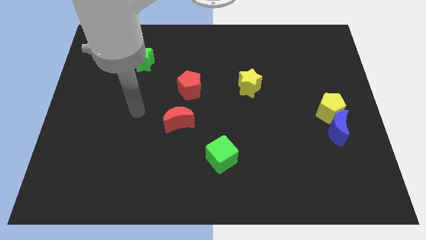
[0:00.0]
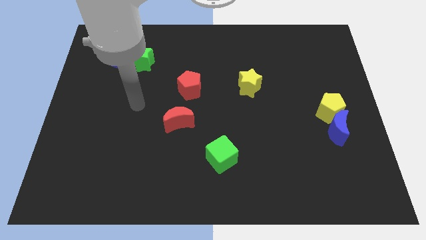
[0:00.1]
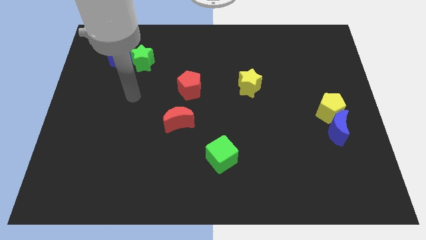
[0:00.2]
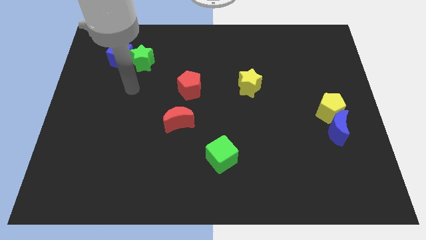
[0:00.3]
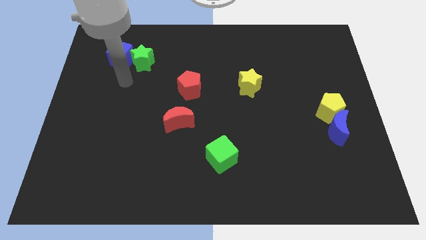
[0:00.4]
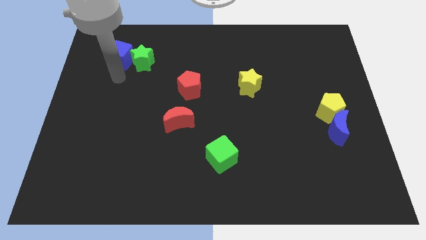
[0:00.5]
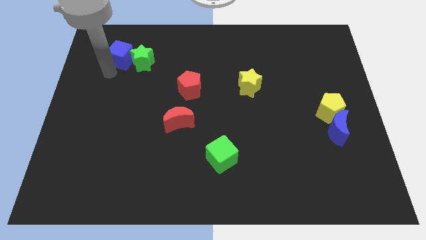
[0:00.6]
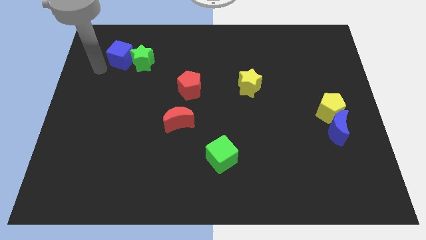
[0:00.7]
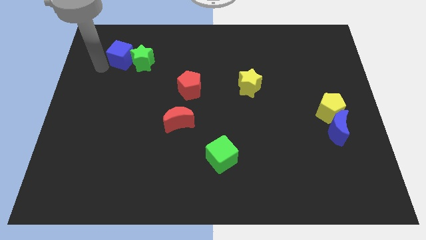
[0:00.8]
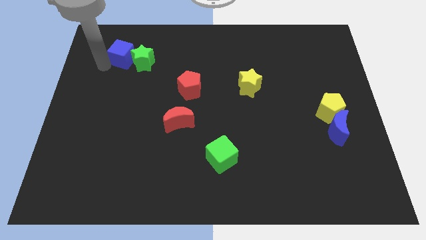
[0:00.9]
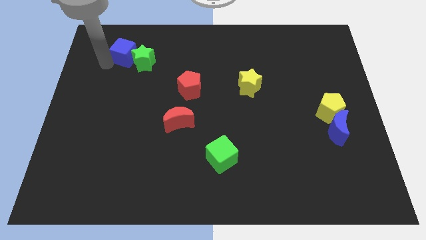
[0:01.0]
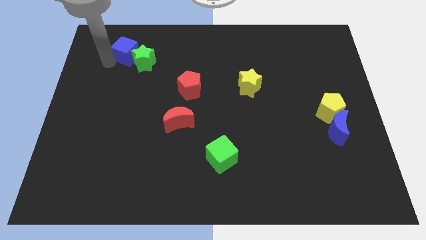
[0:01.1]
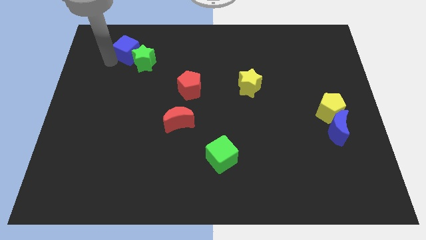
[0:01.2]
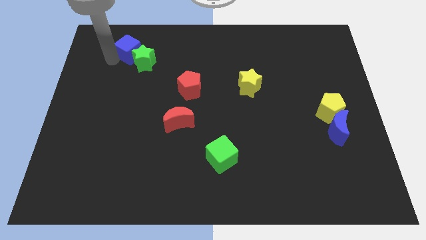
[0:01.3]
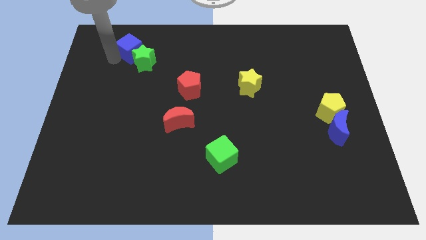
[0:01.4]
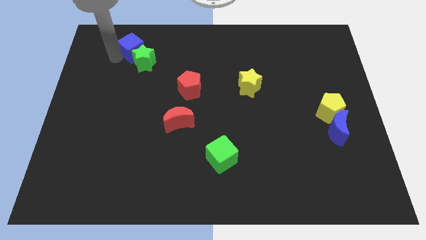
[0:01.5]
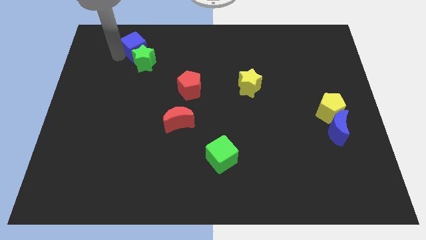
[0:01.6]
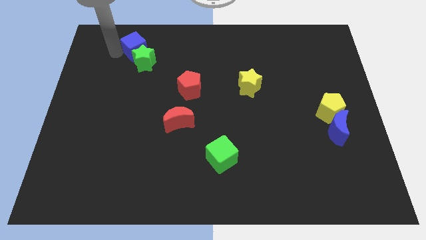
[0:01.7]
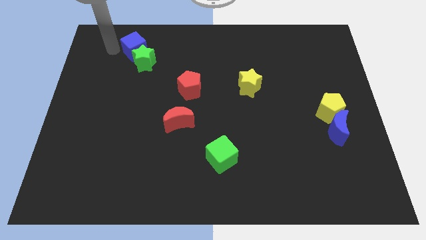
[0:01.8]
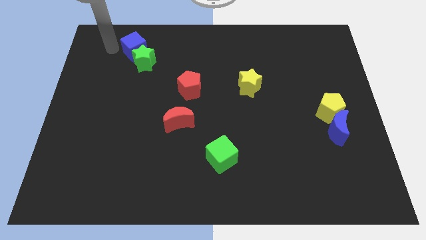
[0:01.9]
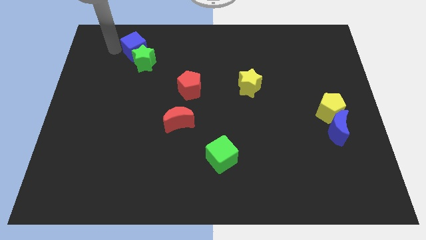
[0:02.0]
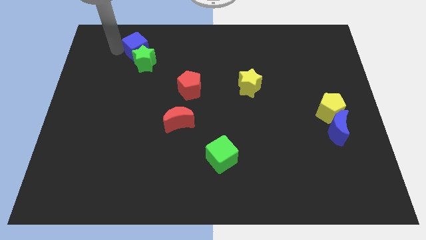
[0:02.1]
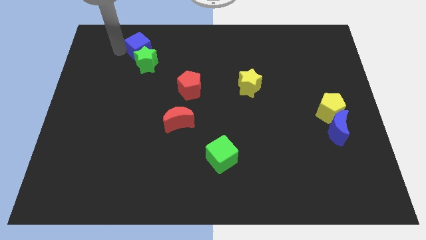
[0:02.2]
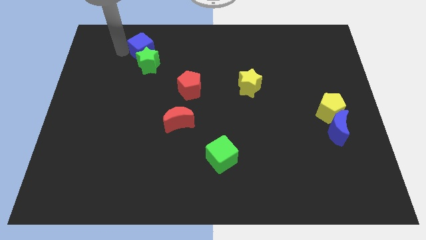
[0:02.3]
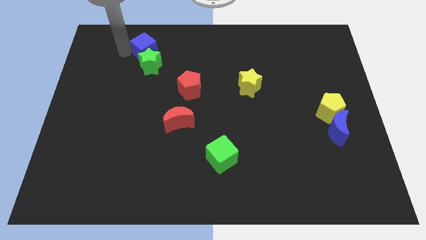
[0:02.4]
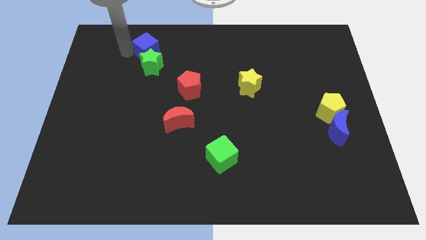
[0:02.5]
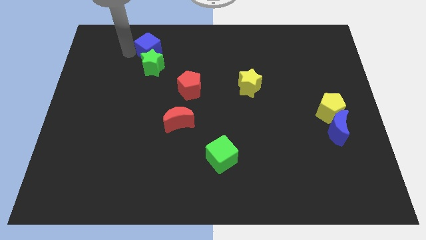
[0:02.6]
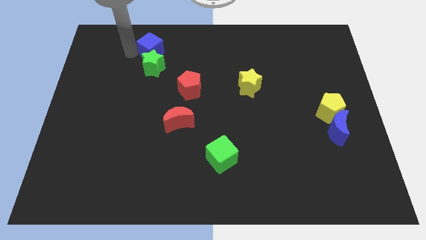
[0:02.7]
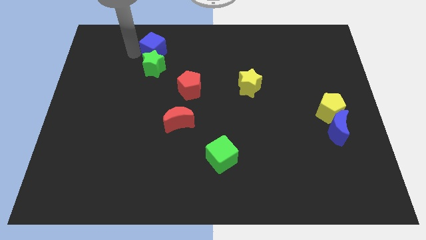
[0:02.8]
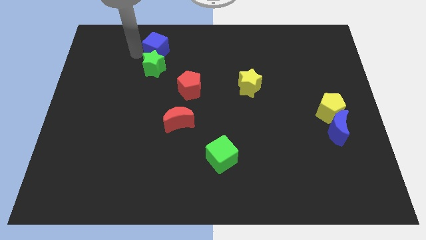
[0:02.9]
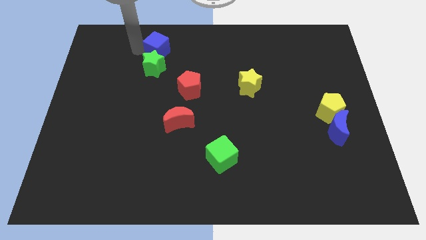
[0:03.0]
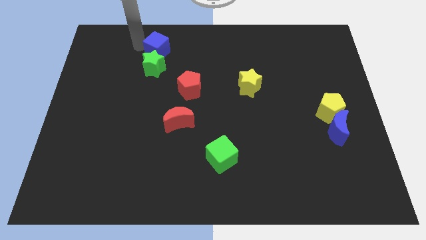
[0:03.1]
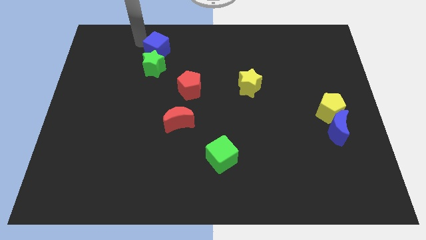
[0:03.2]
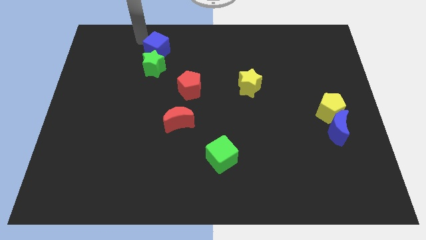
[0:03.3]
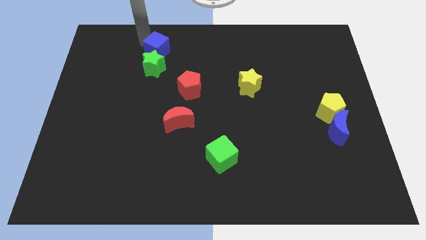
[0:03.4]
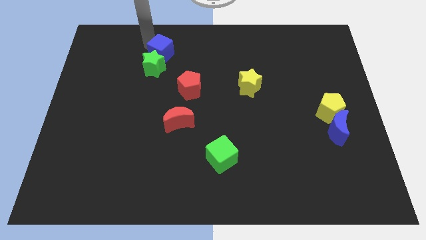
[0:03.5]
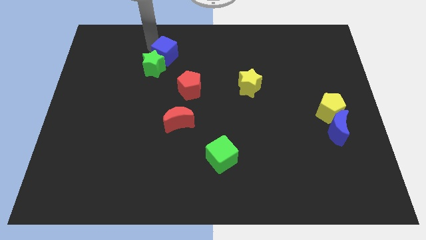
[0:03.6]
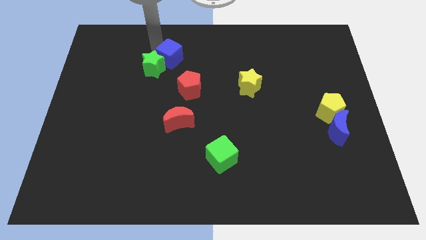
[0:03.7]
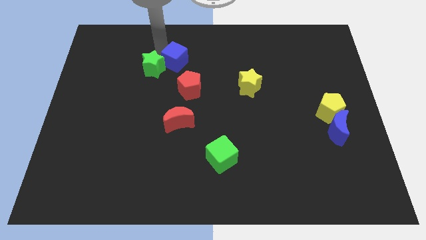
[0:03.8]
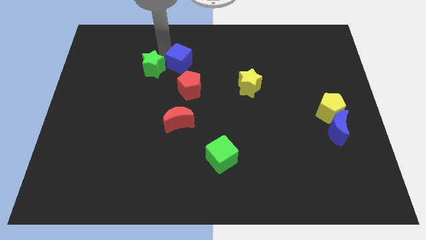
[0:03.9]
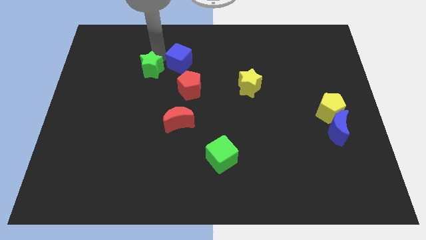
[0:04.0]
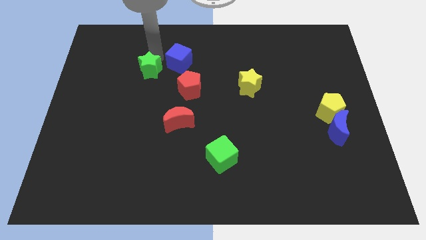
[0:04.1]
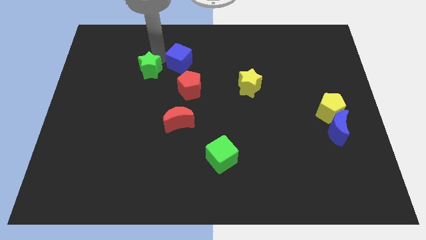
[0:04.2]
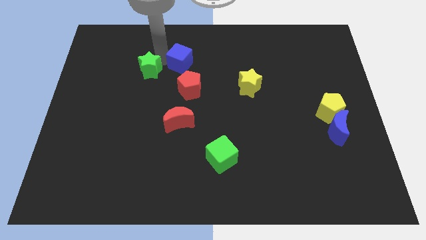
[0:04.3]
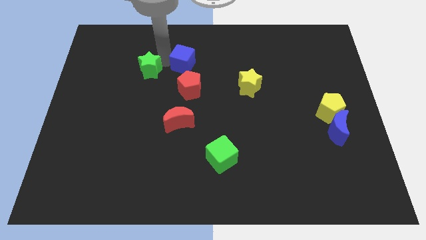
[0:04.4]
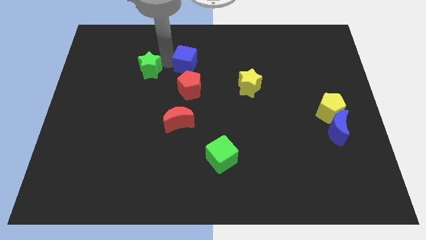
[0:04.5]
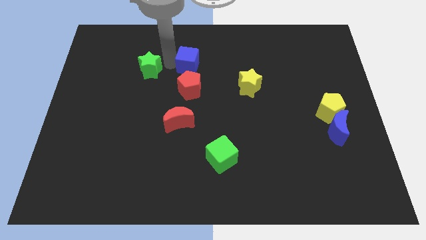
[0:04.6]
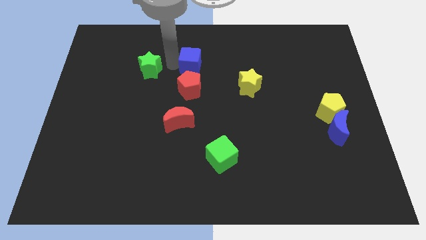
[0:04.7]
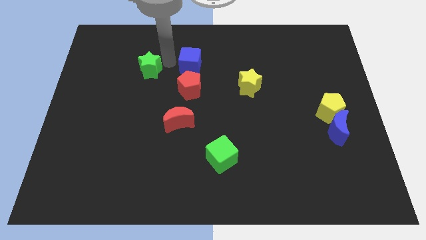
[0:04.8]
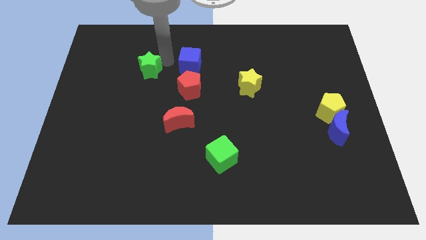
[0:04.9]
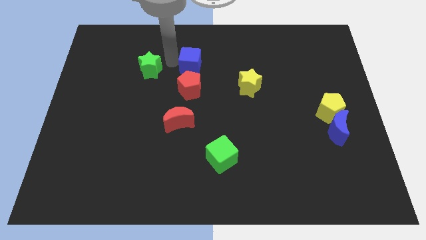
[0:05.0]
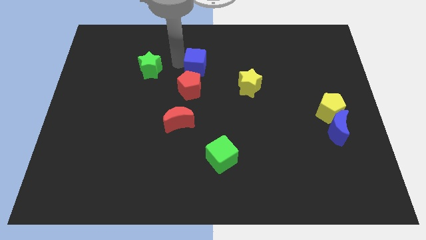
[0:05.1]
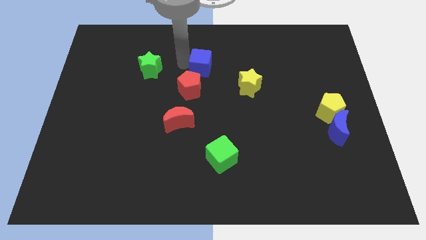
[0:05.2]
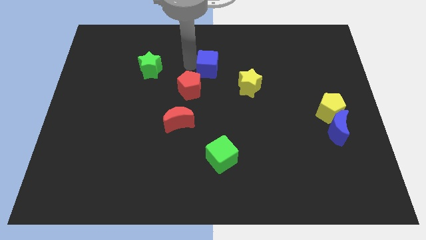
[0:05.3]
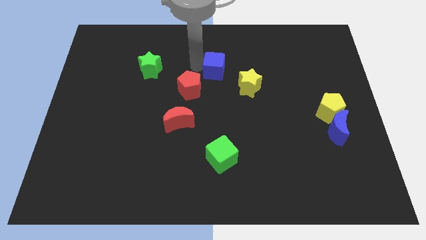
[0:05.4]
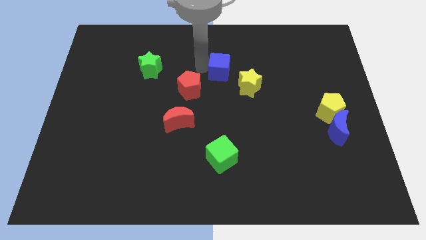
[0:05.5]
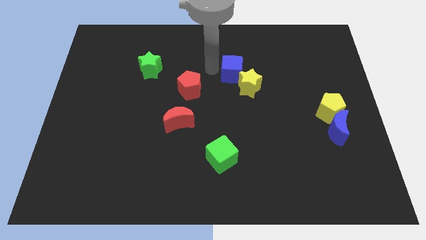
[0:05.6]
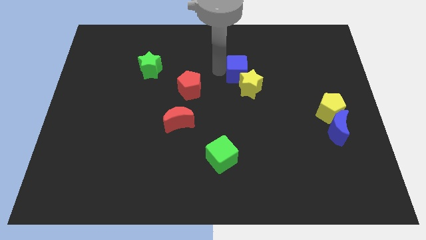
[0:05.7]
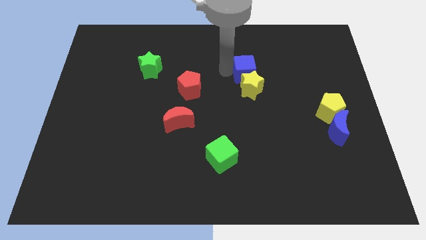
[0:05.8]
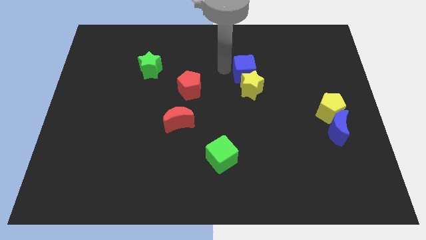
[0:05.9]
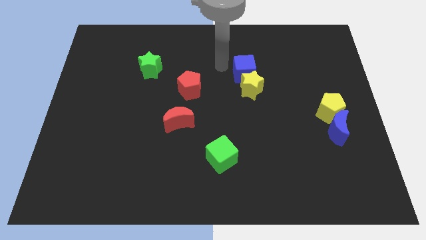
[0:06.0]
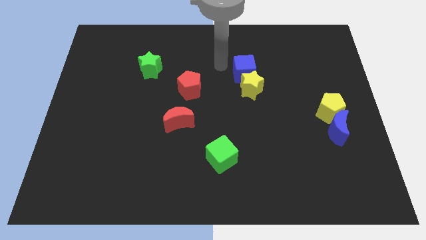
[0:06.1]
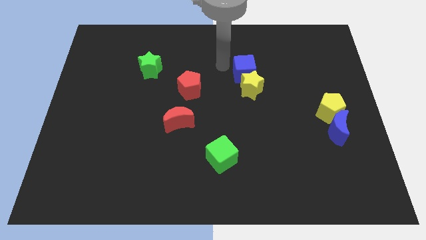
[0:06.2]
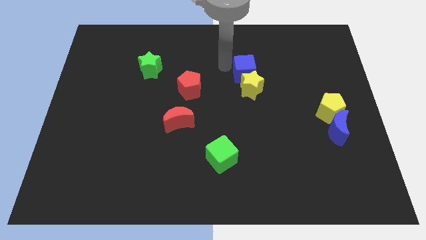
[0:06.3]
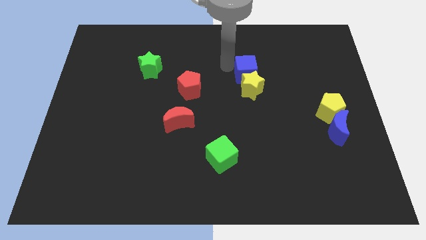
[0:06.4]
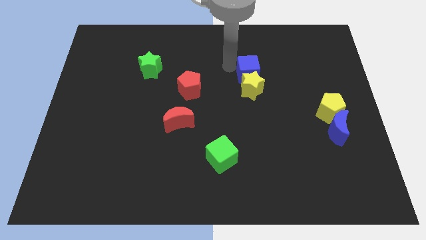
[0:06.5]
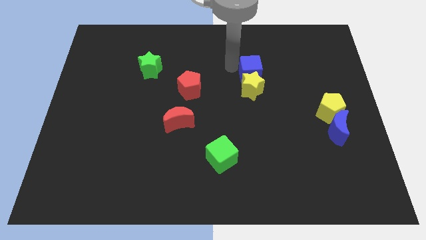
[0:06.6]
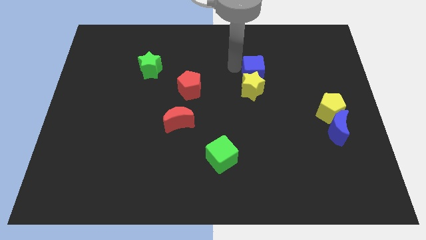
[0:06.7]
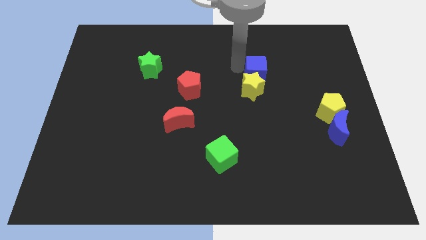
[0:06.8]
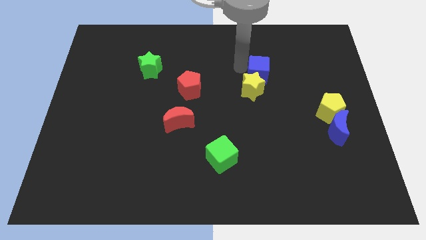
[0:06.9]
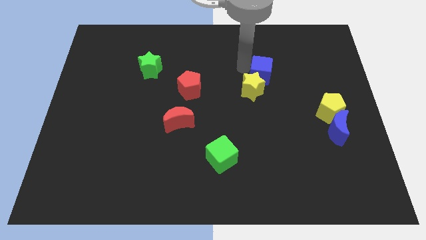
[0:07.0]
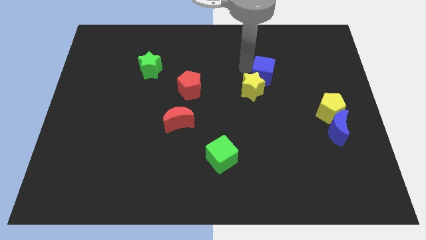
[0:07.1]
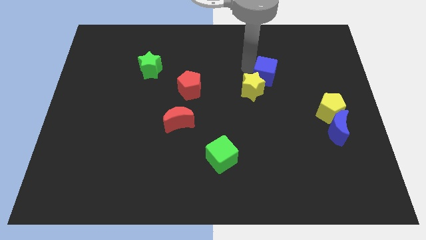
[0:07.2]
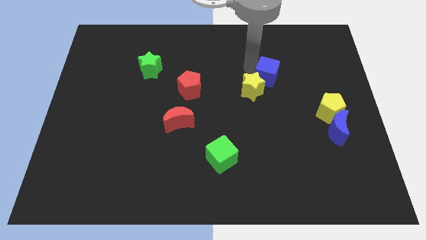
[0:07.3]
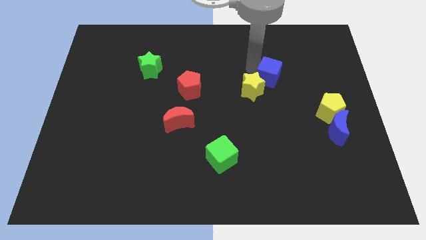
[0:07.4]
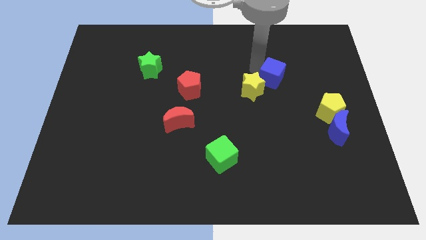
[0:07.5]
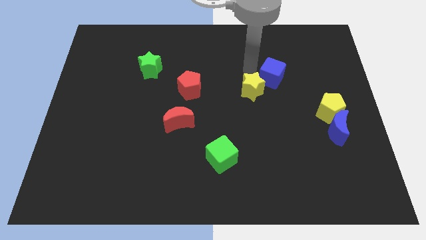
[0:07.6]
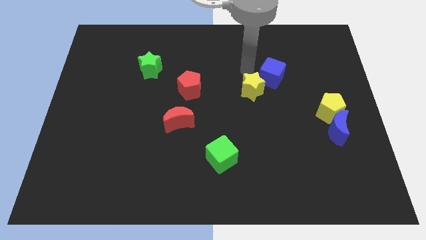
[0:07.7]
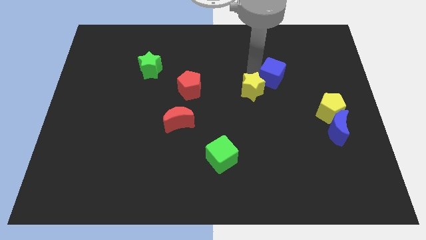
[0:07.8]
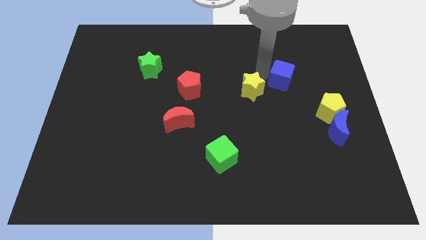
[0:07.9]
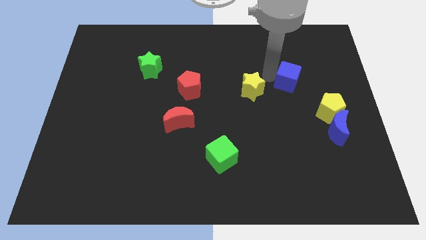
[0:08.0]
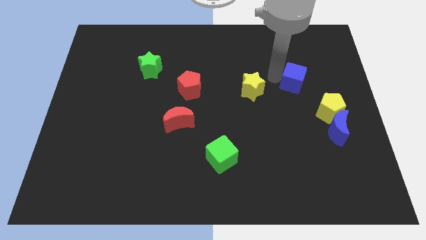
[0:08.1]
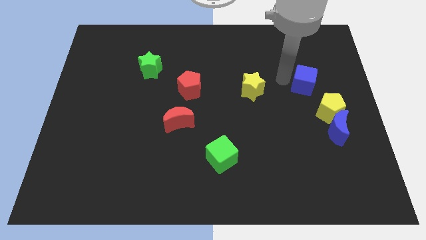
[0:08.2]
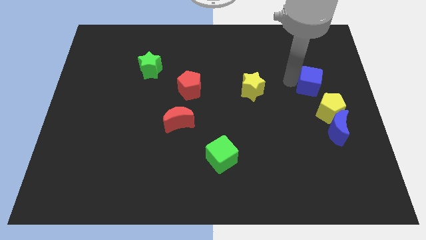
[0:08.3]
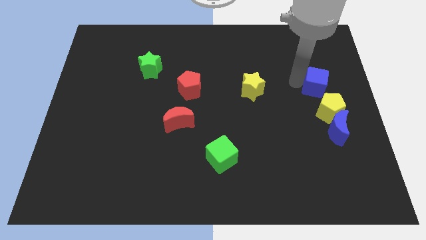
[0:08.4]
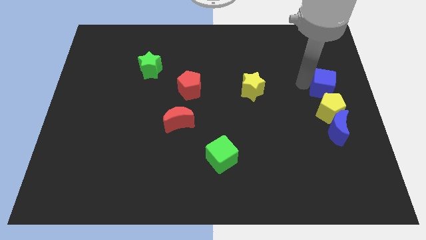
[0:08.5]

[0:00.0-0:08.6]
push the blue cube to the right side of the board
